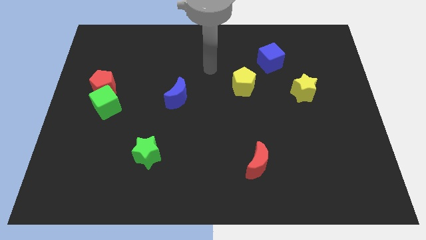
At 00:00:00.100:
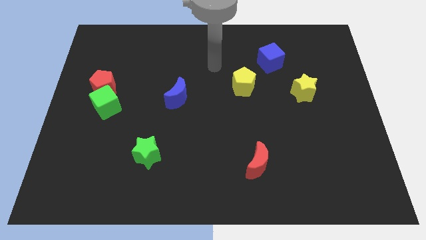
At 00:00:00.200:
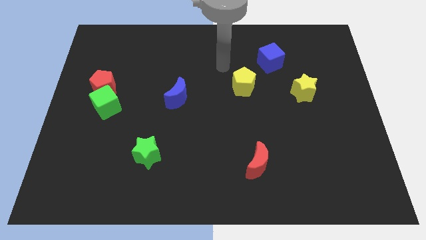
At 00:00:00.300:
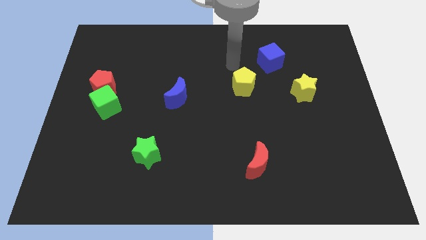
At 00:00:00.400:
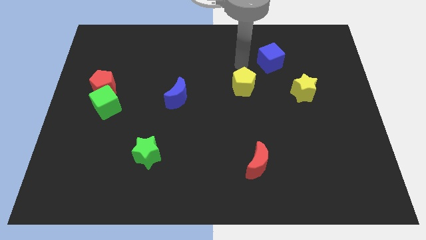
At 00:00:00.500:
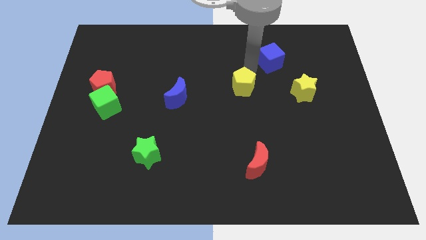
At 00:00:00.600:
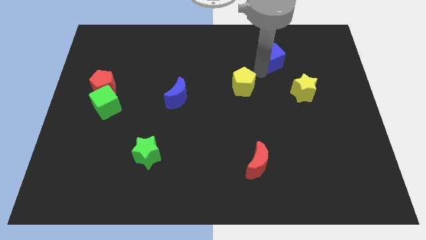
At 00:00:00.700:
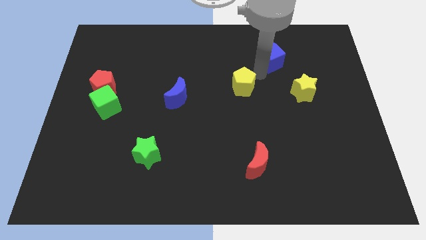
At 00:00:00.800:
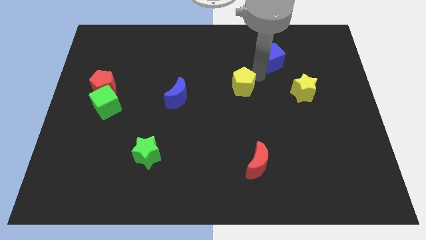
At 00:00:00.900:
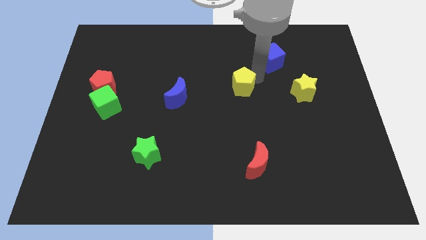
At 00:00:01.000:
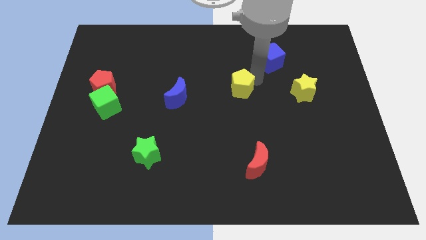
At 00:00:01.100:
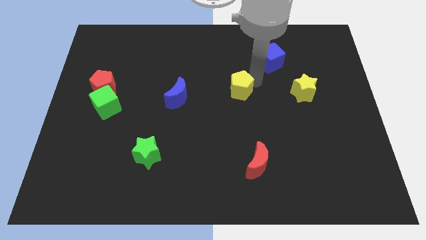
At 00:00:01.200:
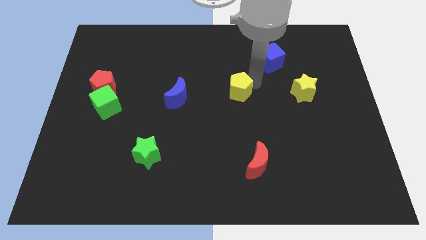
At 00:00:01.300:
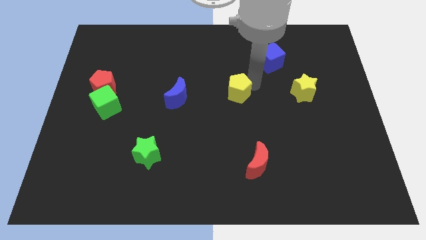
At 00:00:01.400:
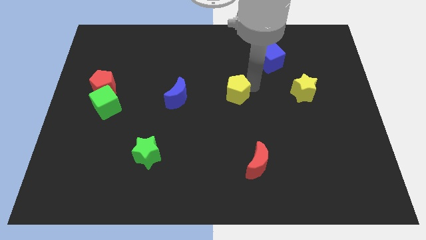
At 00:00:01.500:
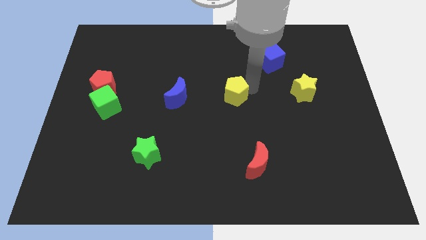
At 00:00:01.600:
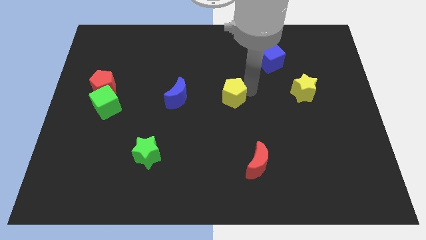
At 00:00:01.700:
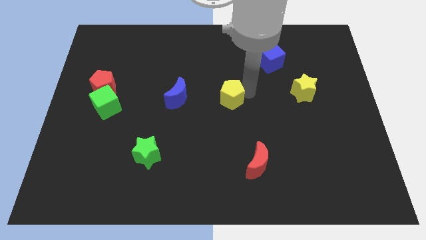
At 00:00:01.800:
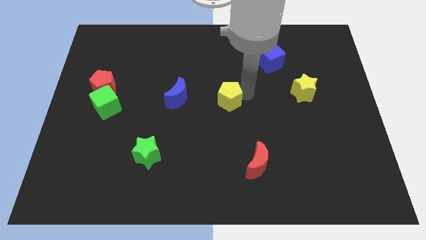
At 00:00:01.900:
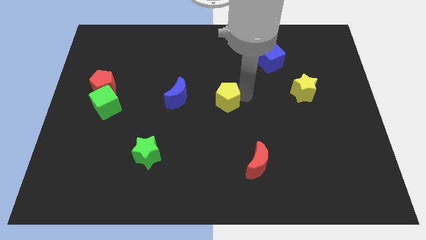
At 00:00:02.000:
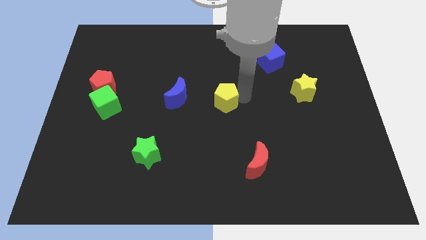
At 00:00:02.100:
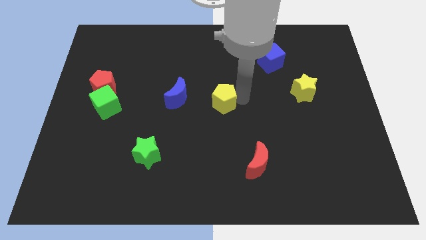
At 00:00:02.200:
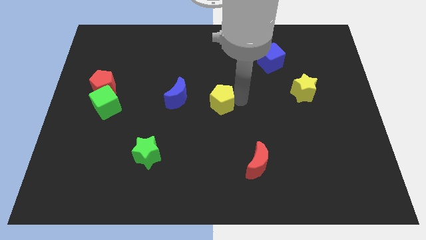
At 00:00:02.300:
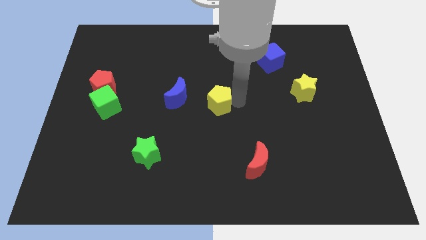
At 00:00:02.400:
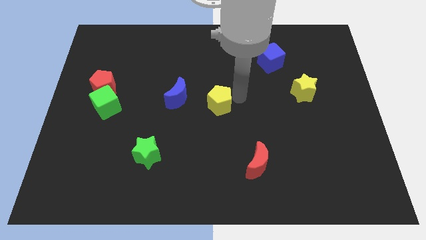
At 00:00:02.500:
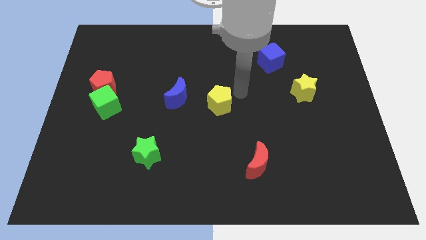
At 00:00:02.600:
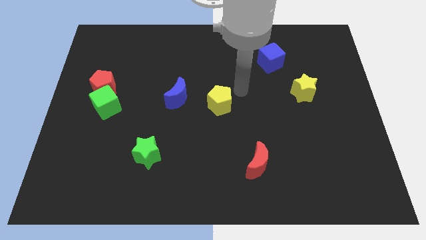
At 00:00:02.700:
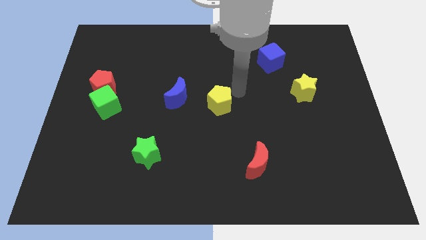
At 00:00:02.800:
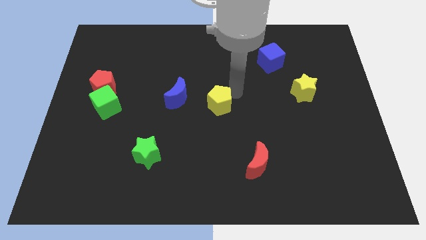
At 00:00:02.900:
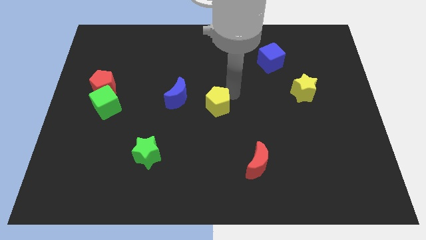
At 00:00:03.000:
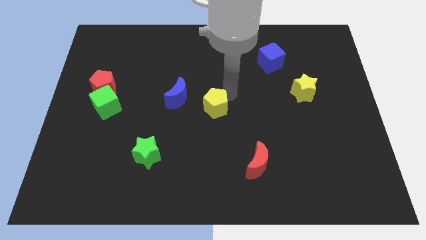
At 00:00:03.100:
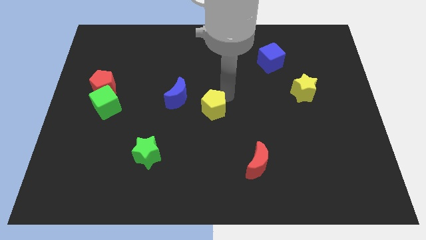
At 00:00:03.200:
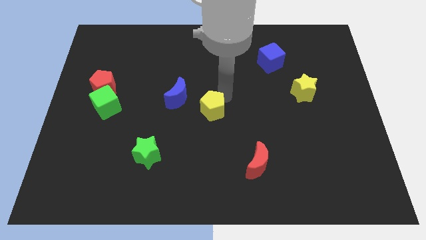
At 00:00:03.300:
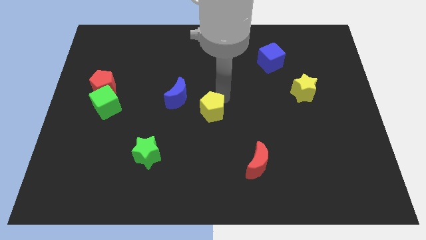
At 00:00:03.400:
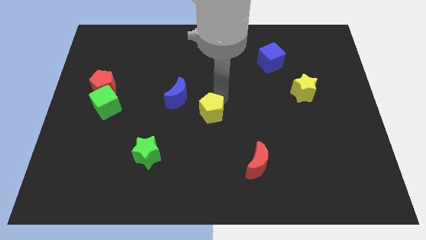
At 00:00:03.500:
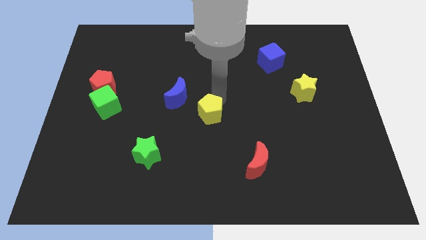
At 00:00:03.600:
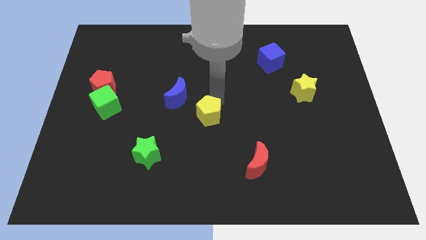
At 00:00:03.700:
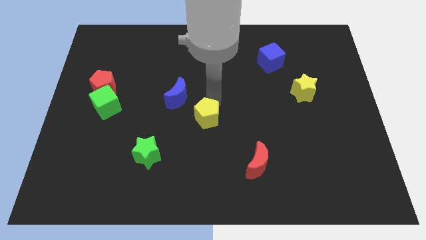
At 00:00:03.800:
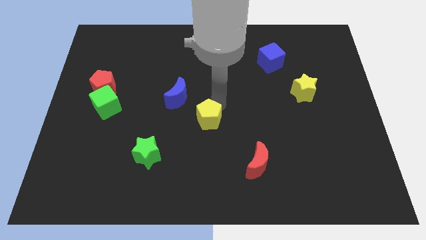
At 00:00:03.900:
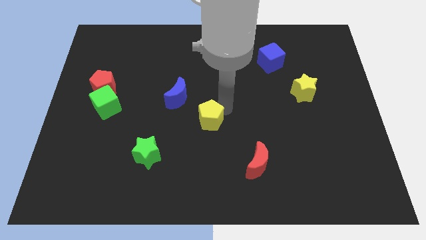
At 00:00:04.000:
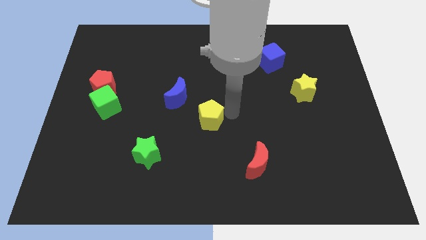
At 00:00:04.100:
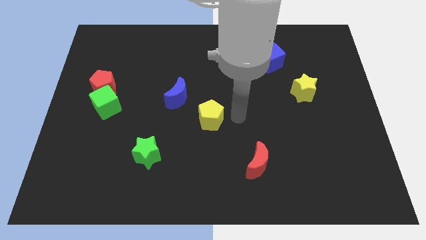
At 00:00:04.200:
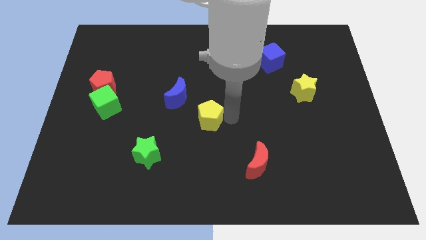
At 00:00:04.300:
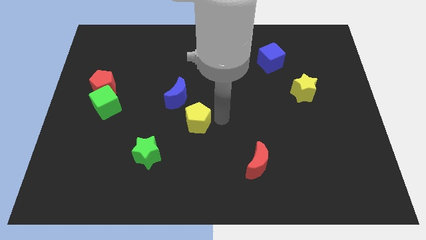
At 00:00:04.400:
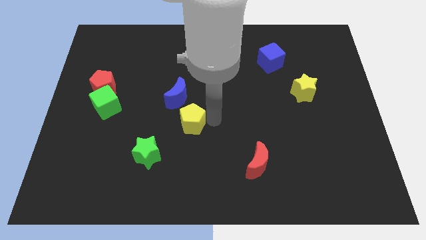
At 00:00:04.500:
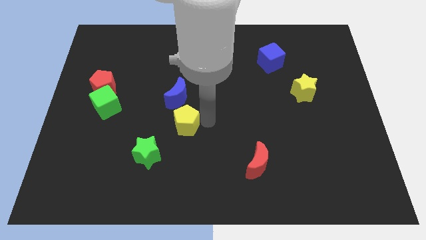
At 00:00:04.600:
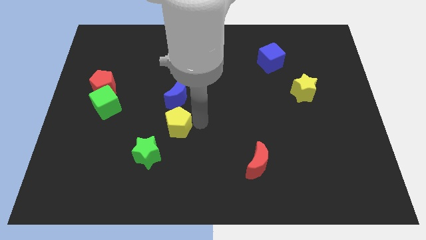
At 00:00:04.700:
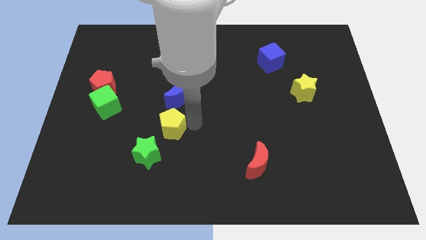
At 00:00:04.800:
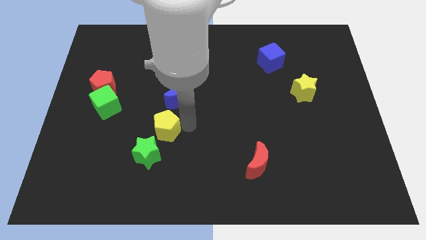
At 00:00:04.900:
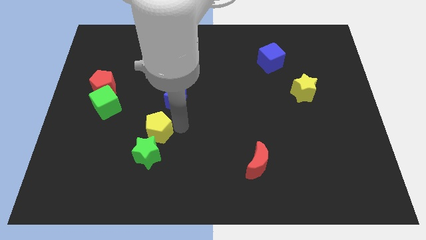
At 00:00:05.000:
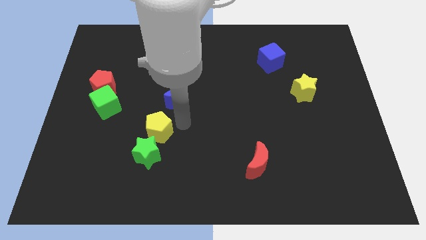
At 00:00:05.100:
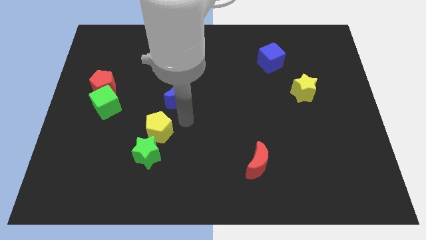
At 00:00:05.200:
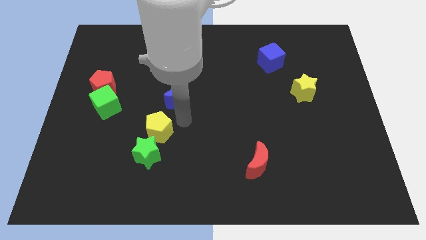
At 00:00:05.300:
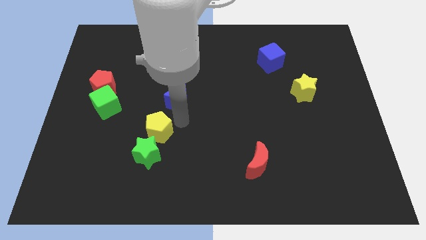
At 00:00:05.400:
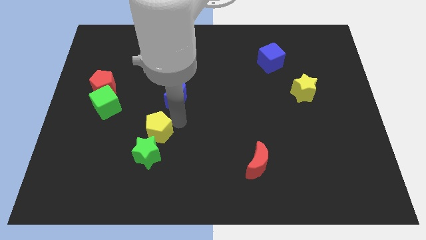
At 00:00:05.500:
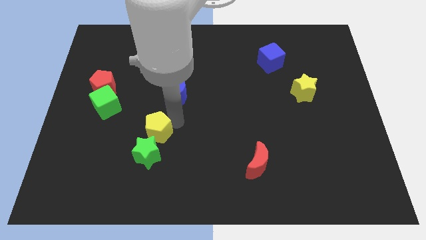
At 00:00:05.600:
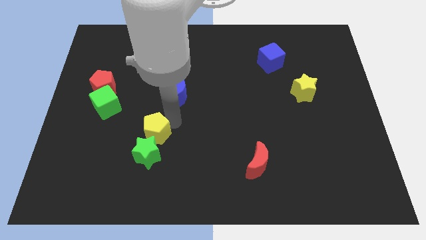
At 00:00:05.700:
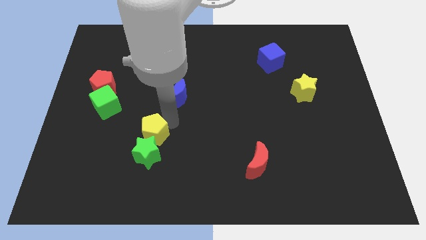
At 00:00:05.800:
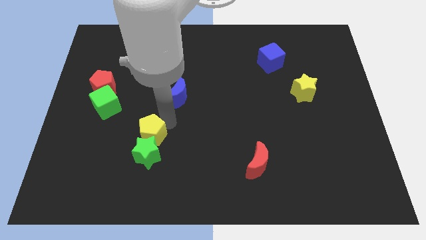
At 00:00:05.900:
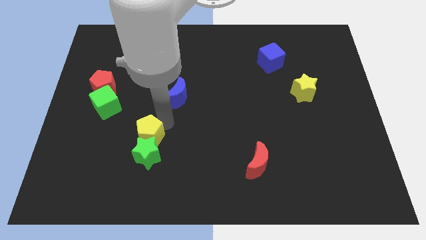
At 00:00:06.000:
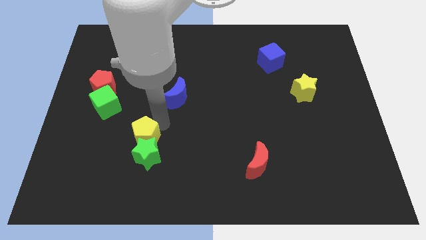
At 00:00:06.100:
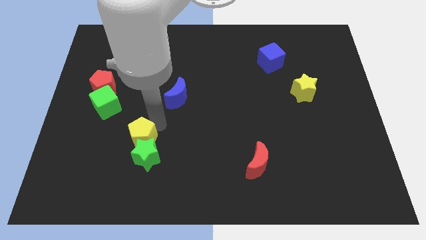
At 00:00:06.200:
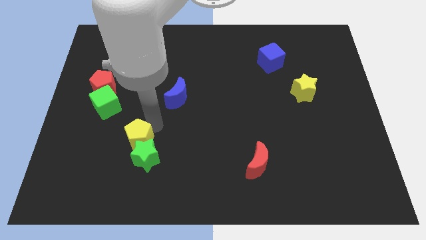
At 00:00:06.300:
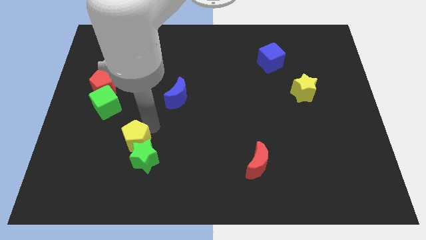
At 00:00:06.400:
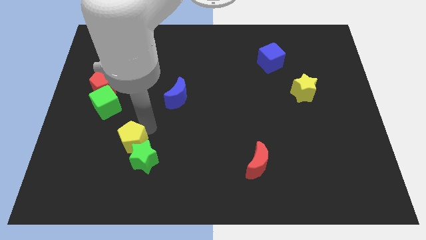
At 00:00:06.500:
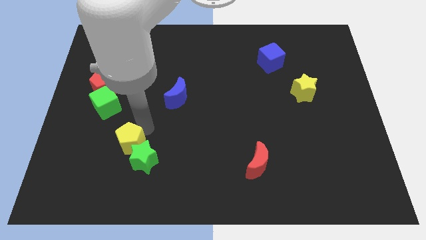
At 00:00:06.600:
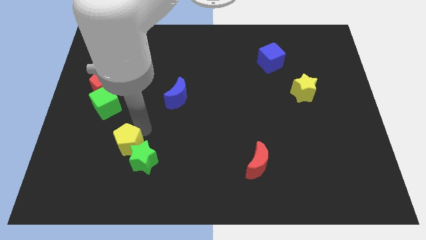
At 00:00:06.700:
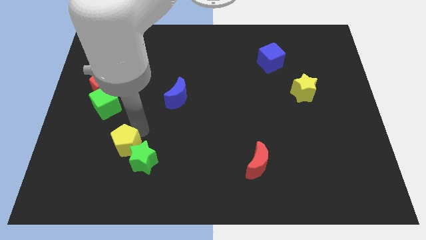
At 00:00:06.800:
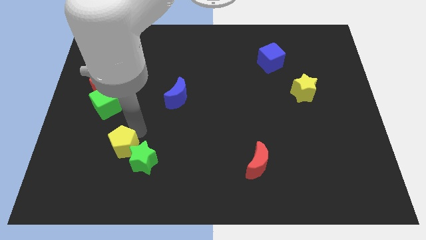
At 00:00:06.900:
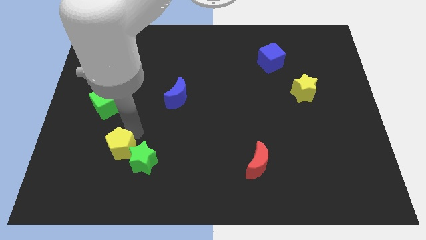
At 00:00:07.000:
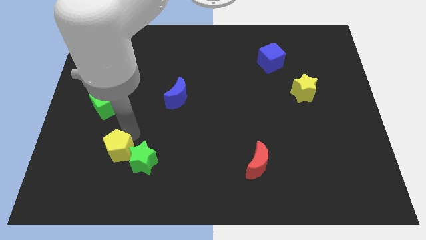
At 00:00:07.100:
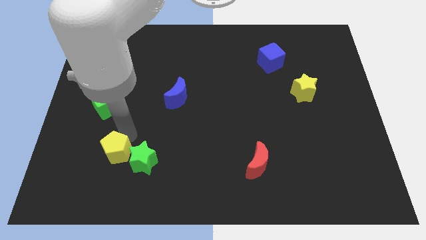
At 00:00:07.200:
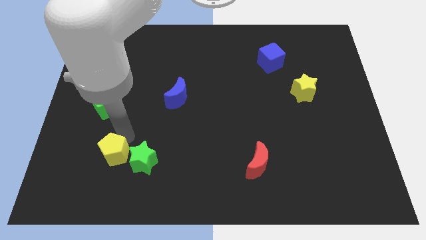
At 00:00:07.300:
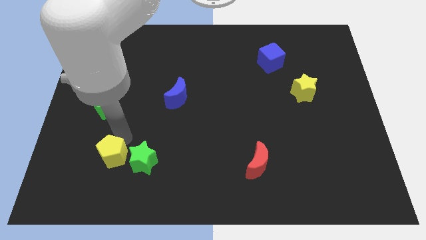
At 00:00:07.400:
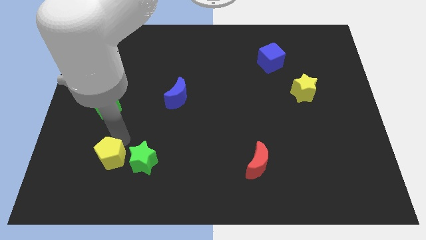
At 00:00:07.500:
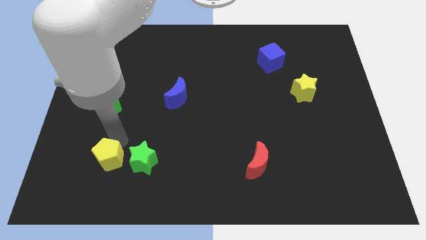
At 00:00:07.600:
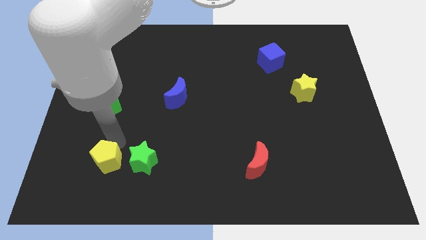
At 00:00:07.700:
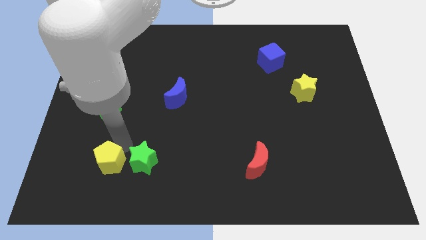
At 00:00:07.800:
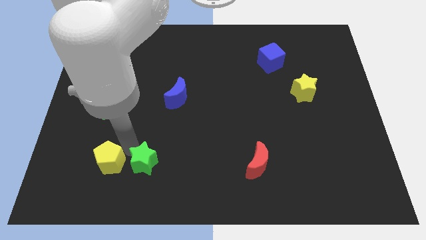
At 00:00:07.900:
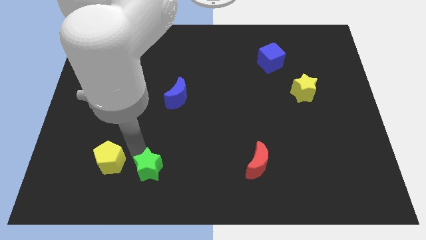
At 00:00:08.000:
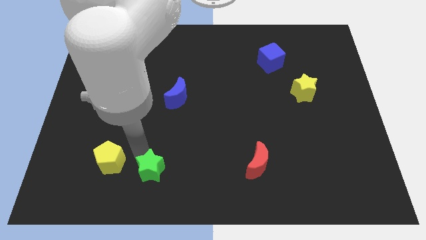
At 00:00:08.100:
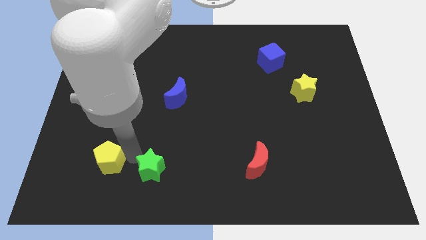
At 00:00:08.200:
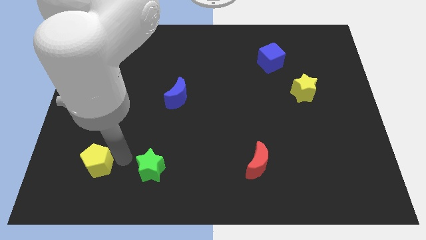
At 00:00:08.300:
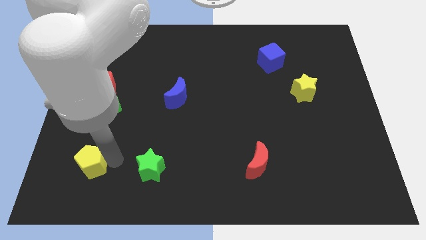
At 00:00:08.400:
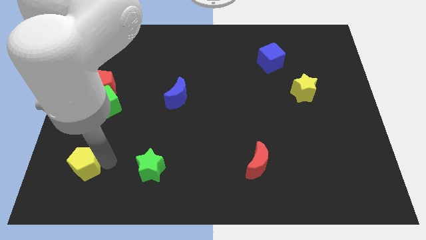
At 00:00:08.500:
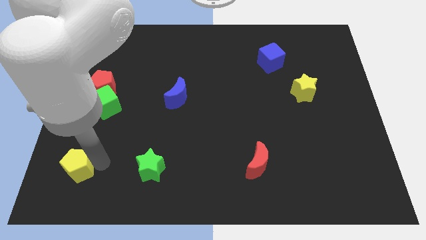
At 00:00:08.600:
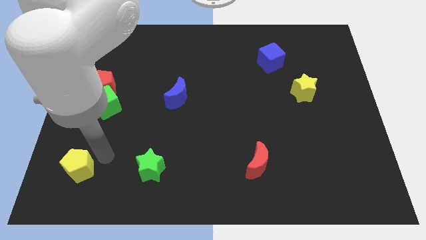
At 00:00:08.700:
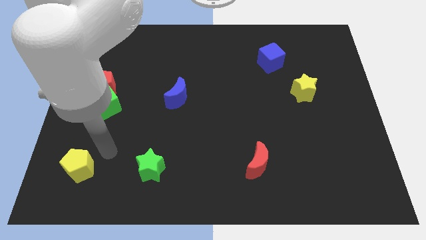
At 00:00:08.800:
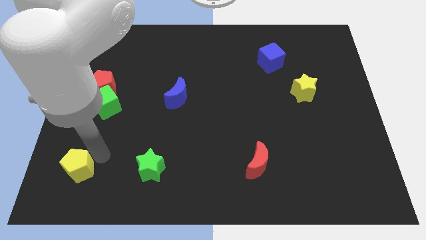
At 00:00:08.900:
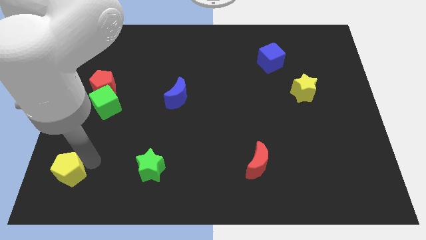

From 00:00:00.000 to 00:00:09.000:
push the yellow pentagon to the lower left corner
